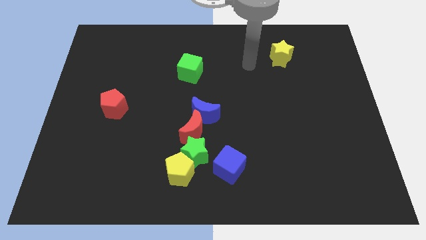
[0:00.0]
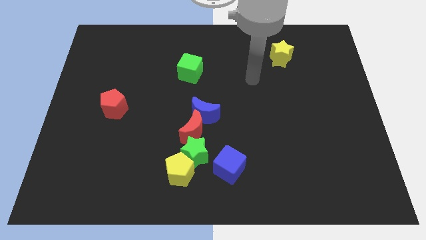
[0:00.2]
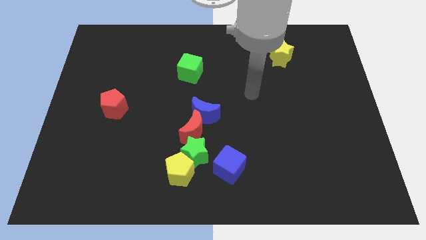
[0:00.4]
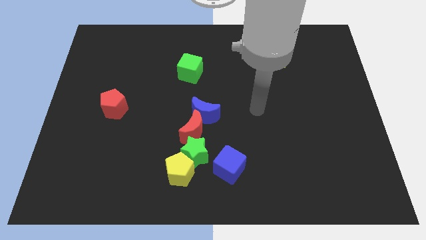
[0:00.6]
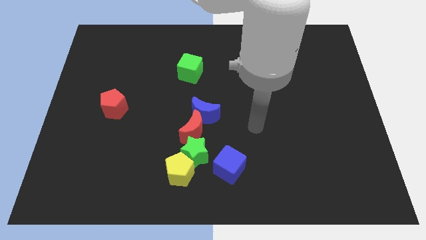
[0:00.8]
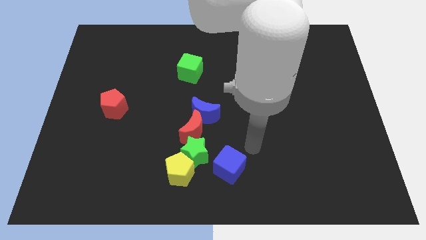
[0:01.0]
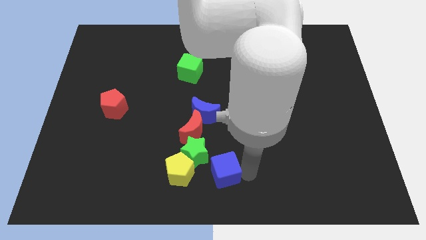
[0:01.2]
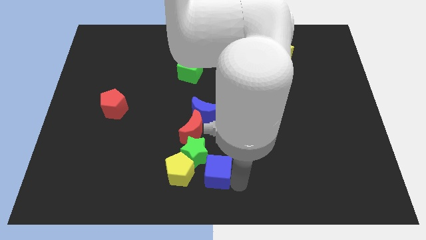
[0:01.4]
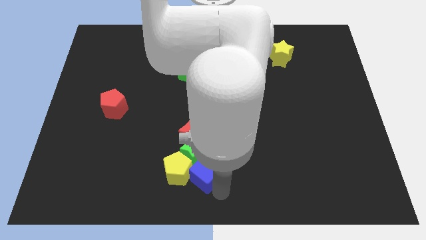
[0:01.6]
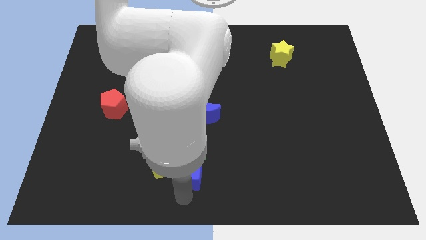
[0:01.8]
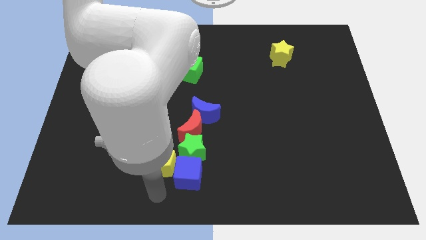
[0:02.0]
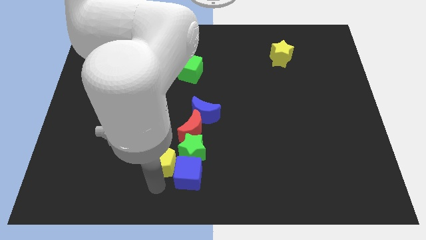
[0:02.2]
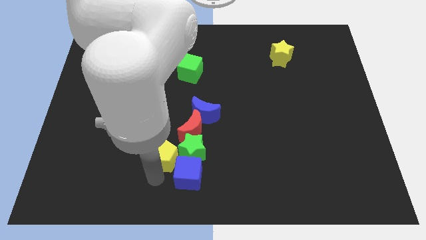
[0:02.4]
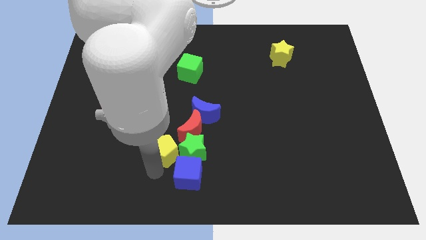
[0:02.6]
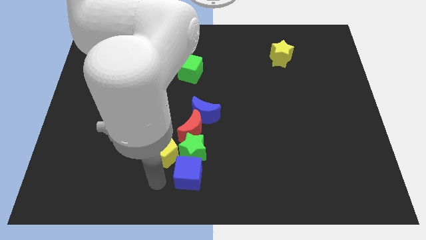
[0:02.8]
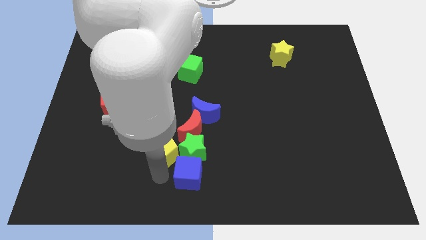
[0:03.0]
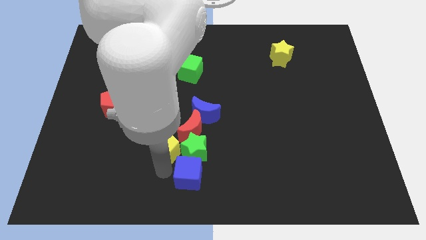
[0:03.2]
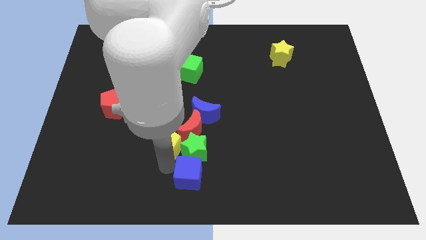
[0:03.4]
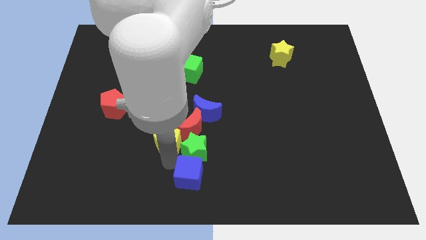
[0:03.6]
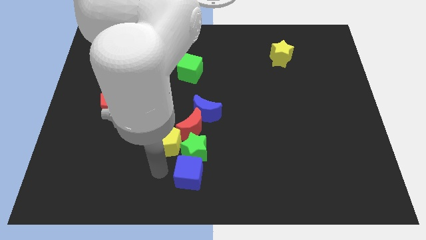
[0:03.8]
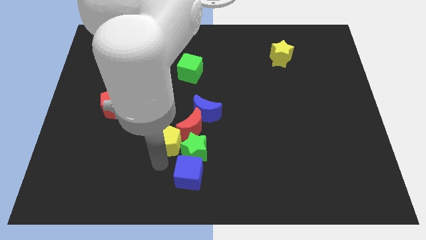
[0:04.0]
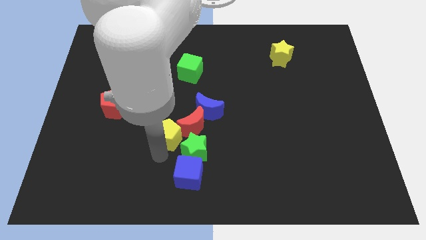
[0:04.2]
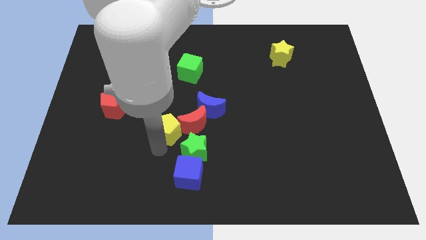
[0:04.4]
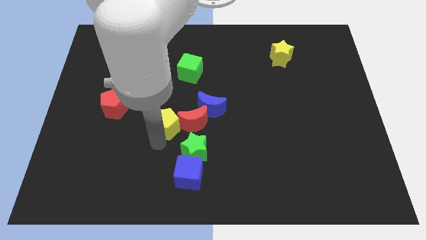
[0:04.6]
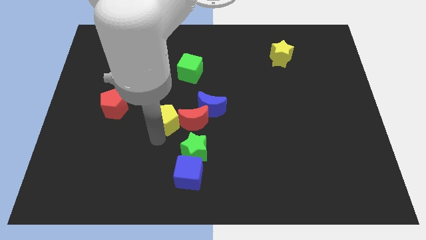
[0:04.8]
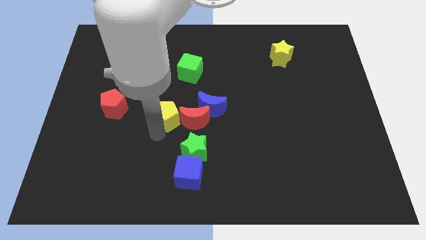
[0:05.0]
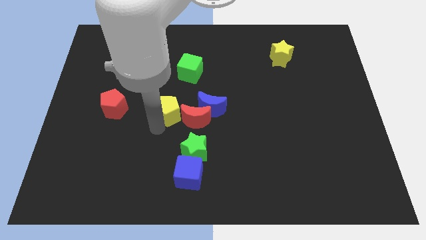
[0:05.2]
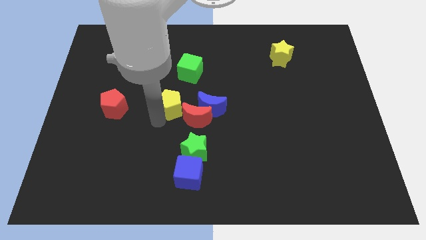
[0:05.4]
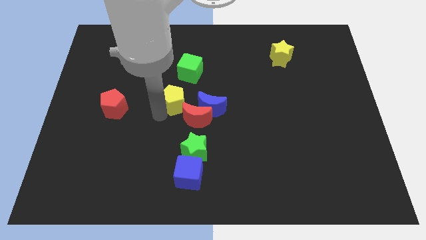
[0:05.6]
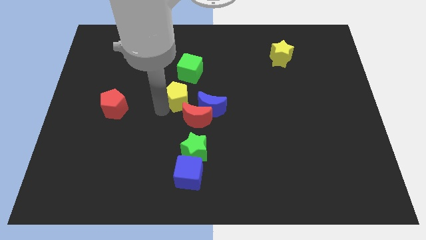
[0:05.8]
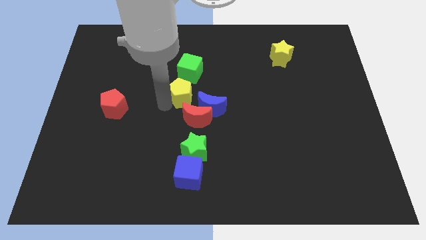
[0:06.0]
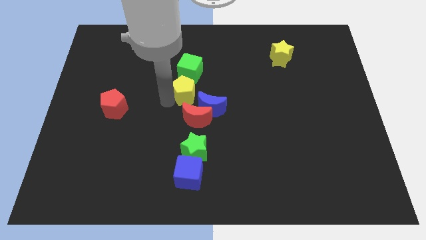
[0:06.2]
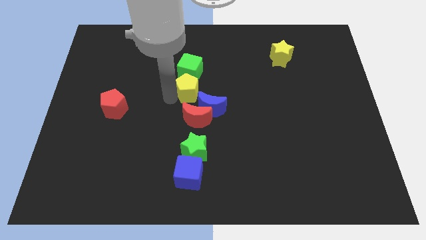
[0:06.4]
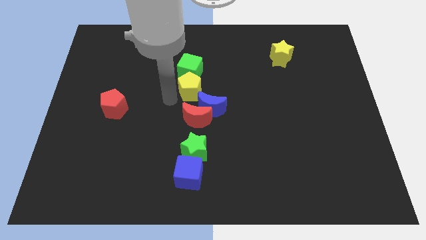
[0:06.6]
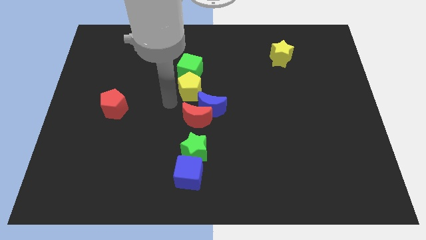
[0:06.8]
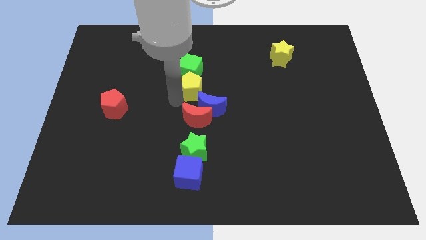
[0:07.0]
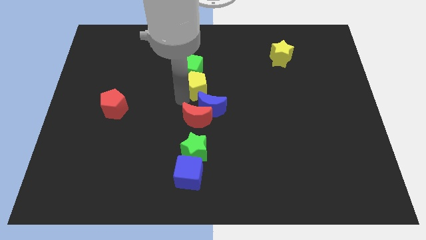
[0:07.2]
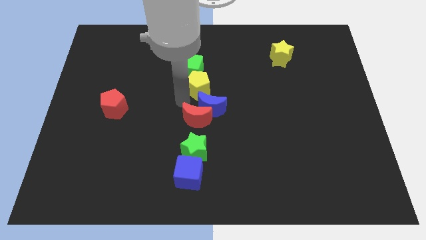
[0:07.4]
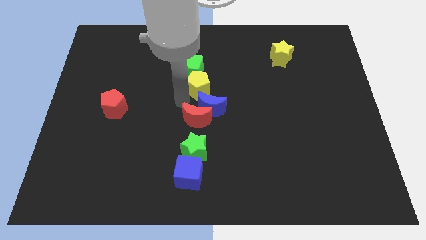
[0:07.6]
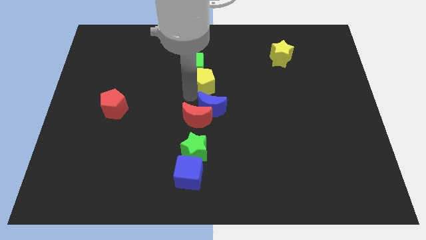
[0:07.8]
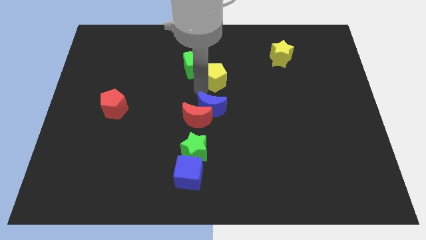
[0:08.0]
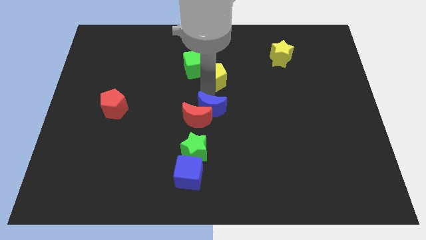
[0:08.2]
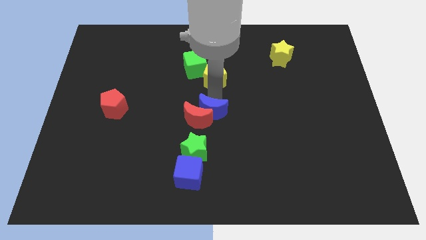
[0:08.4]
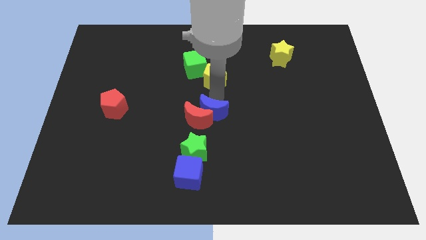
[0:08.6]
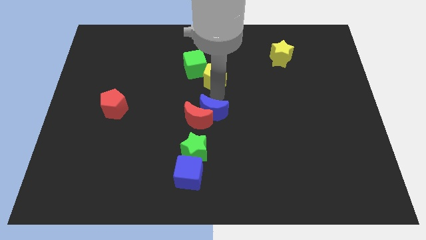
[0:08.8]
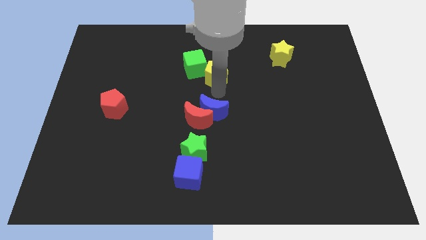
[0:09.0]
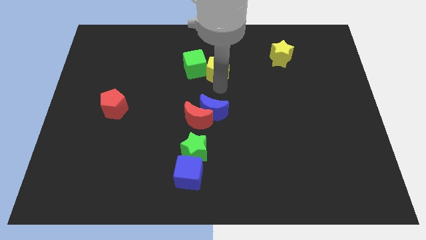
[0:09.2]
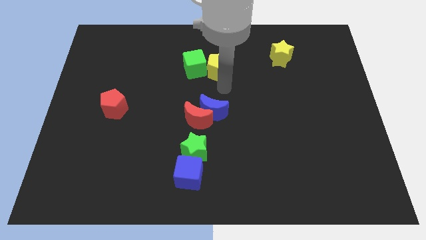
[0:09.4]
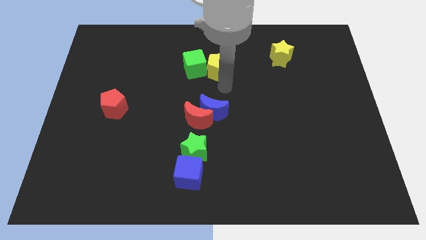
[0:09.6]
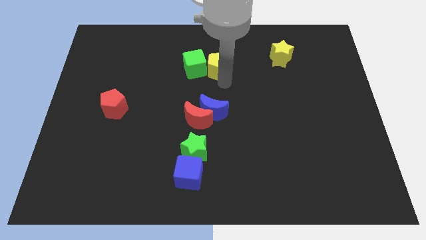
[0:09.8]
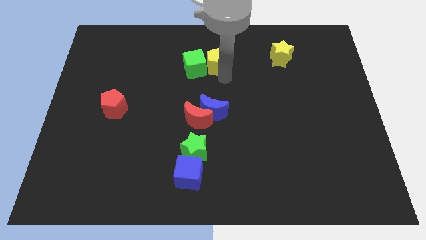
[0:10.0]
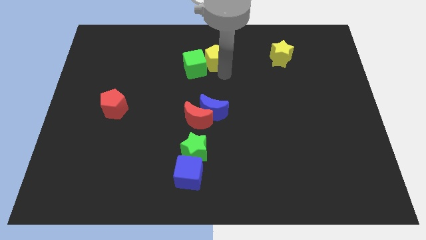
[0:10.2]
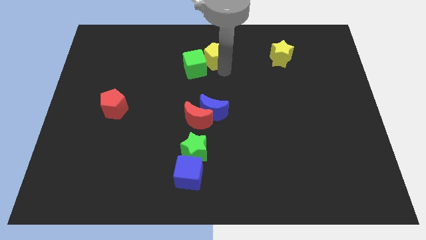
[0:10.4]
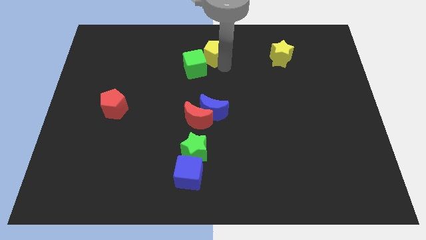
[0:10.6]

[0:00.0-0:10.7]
push the yellow pentagon to the top

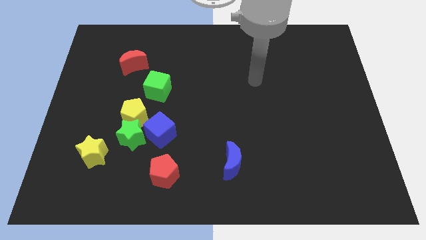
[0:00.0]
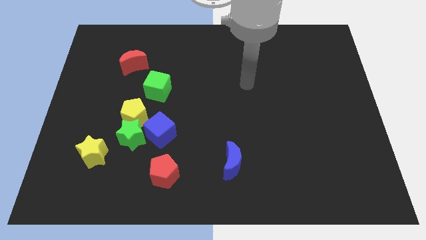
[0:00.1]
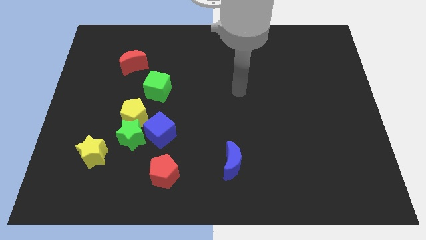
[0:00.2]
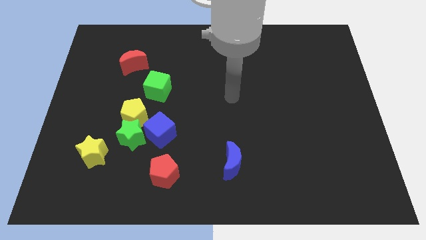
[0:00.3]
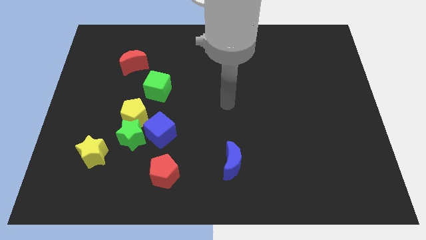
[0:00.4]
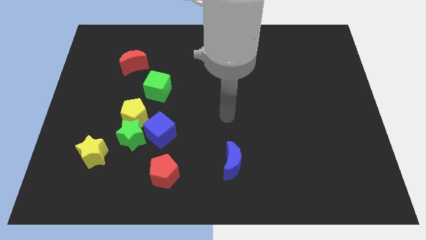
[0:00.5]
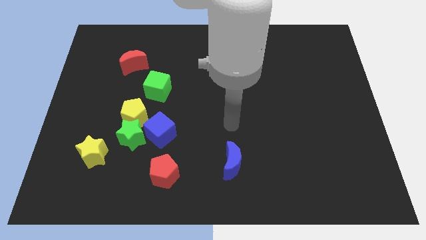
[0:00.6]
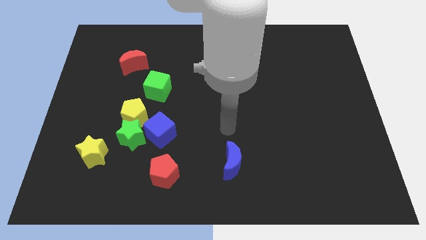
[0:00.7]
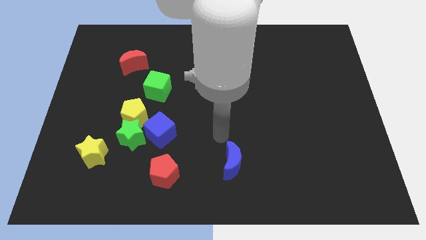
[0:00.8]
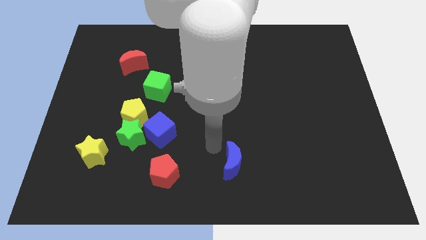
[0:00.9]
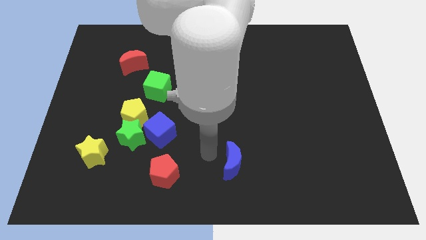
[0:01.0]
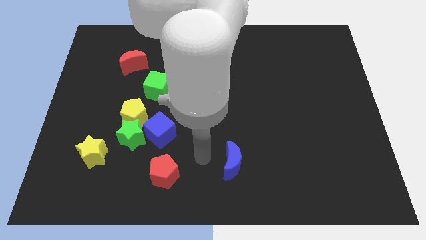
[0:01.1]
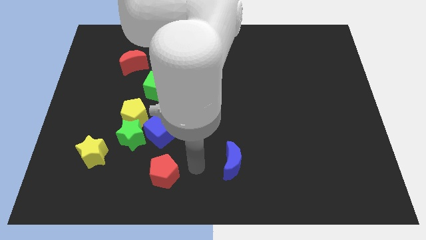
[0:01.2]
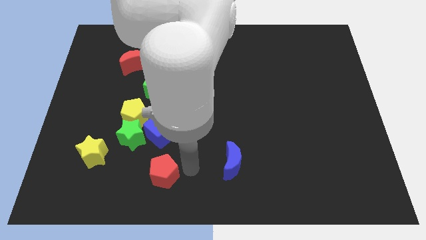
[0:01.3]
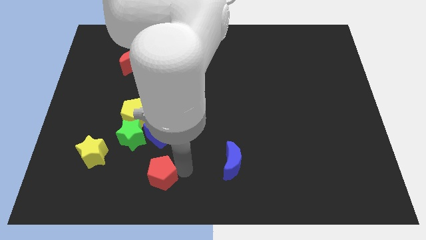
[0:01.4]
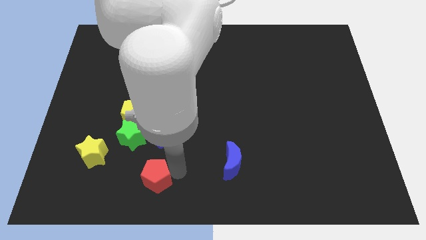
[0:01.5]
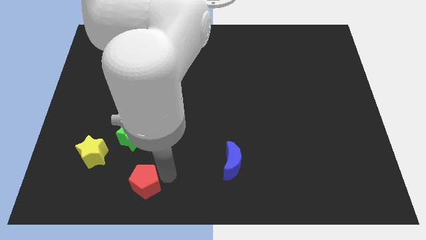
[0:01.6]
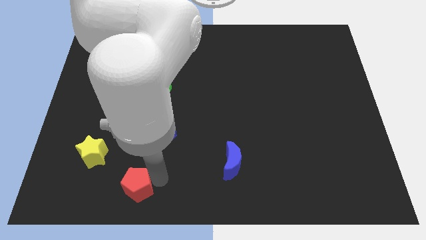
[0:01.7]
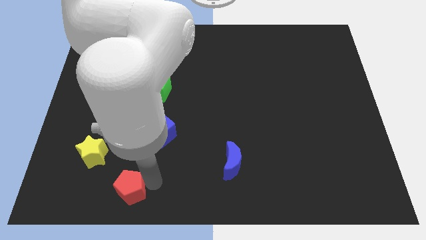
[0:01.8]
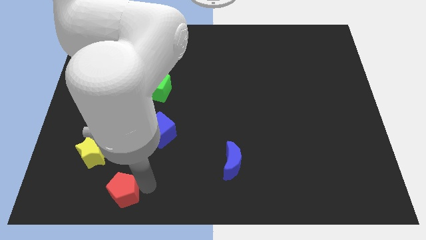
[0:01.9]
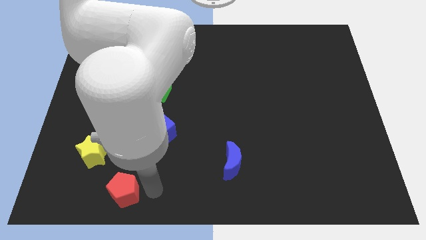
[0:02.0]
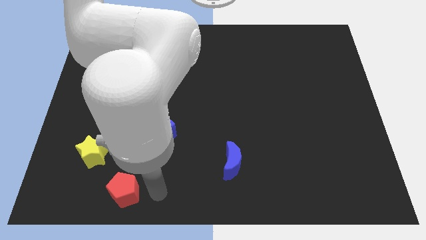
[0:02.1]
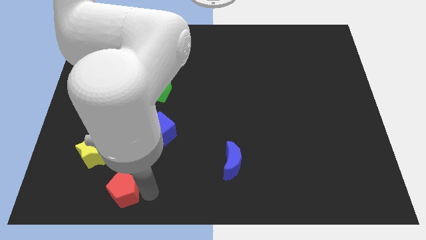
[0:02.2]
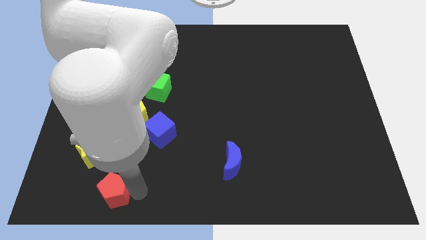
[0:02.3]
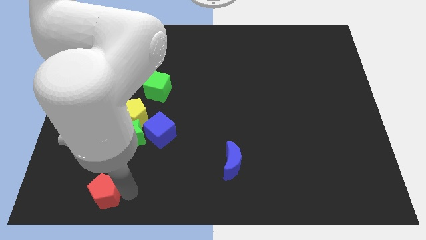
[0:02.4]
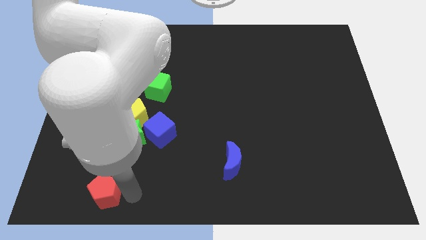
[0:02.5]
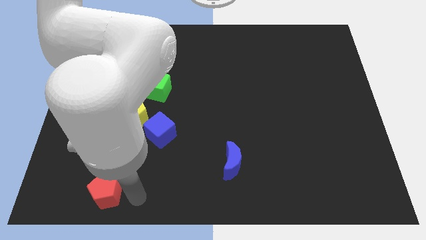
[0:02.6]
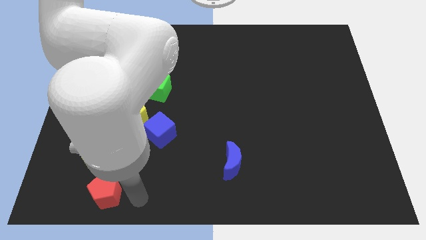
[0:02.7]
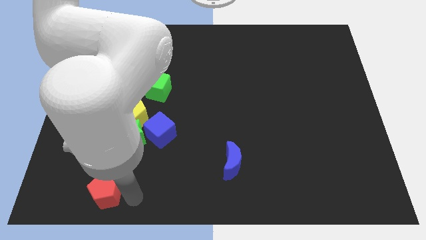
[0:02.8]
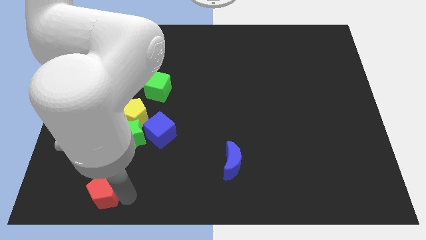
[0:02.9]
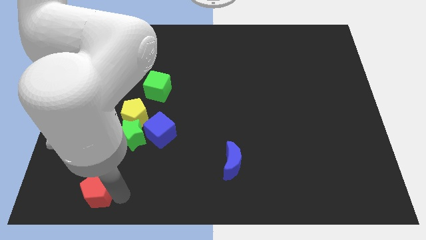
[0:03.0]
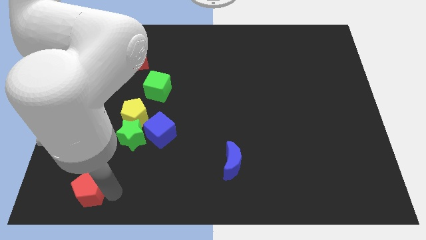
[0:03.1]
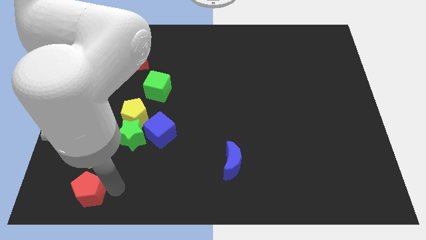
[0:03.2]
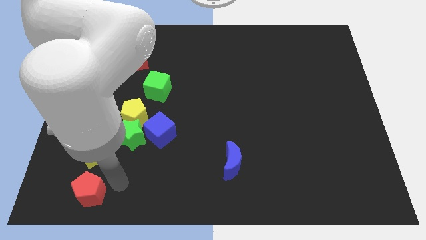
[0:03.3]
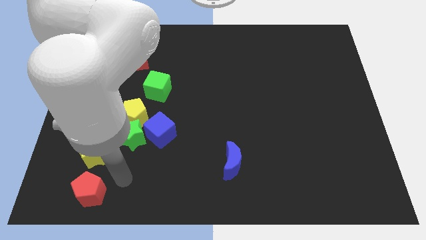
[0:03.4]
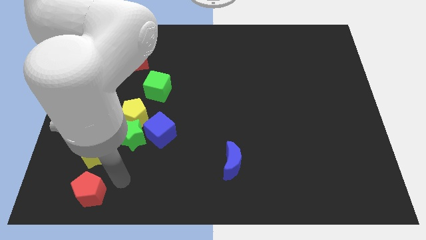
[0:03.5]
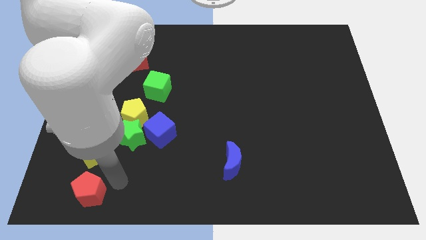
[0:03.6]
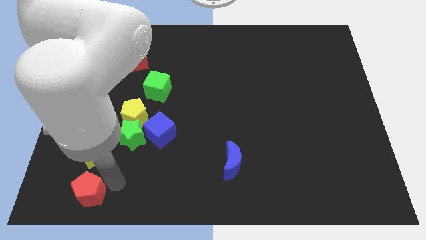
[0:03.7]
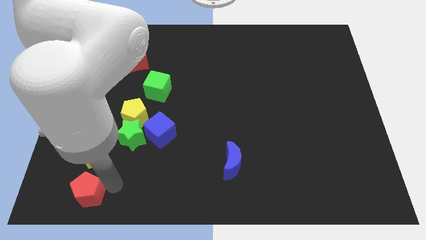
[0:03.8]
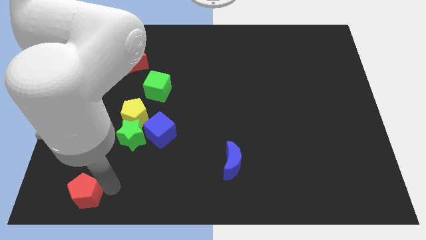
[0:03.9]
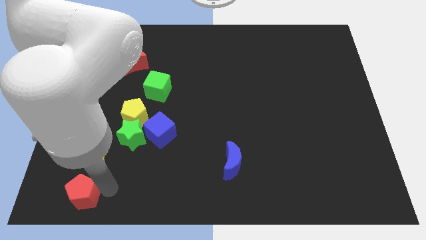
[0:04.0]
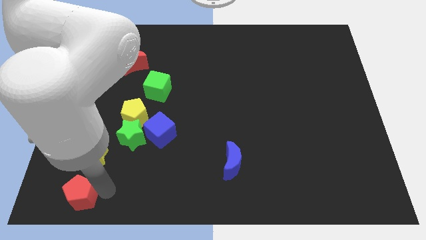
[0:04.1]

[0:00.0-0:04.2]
slide the red pentagon to the bottom left of the board
